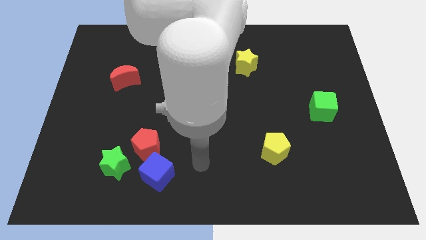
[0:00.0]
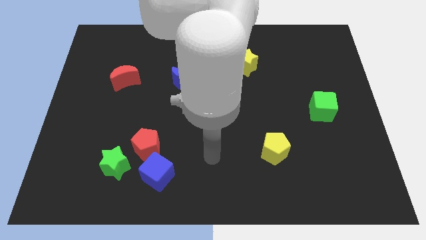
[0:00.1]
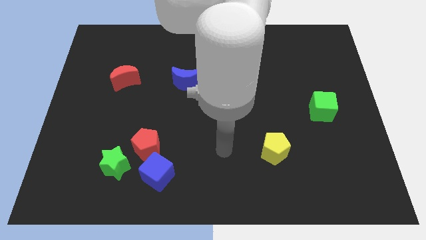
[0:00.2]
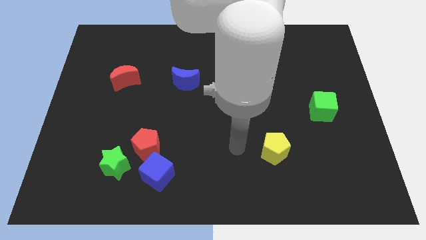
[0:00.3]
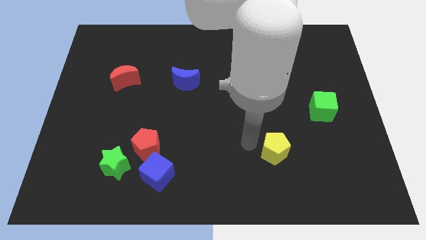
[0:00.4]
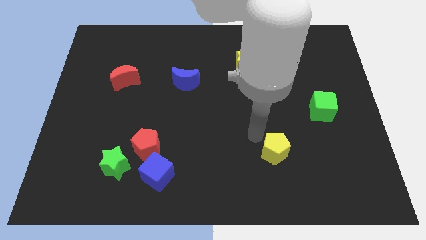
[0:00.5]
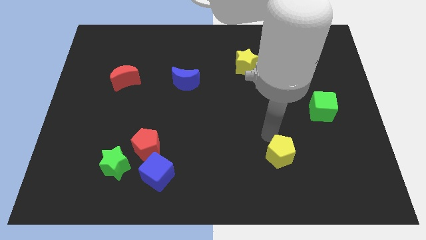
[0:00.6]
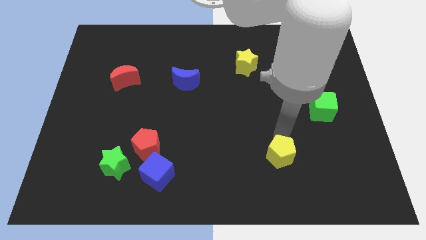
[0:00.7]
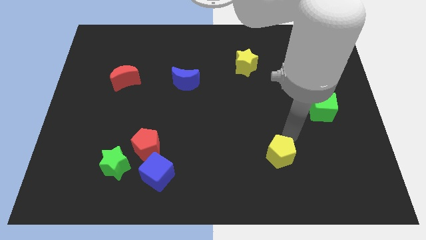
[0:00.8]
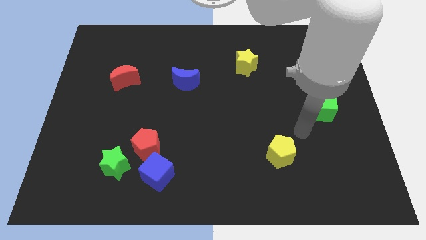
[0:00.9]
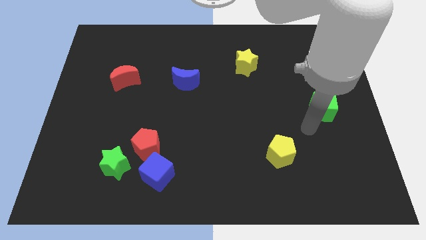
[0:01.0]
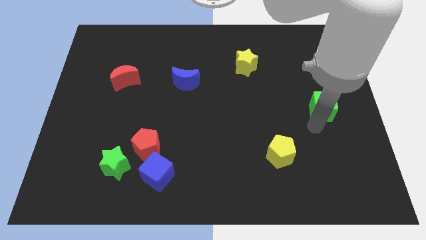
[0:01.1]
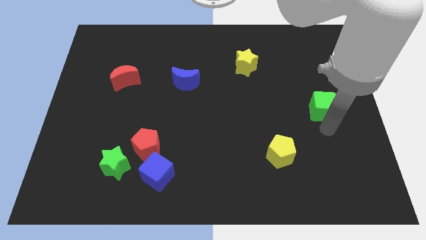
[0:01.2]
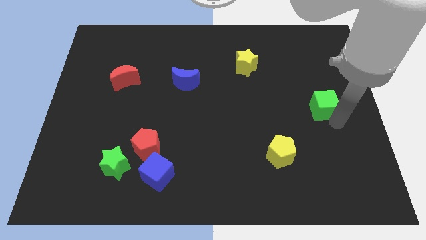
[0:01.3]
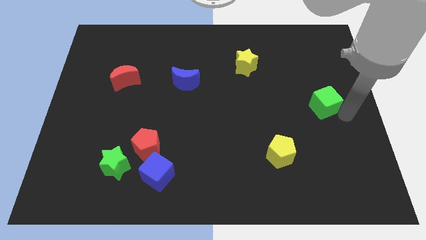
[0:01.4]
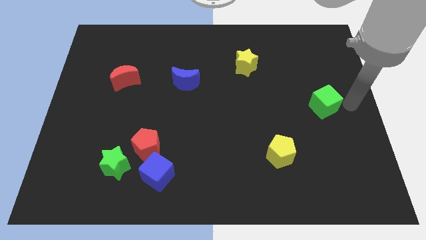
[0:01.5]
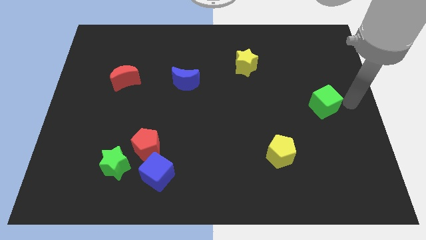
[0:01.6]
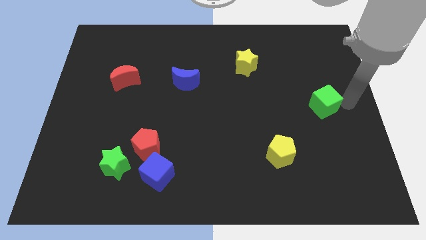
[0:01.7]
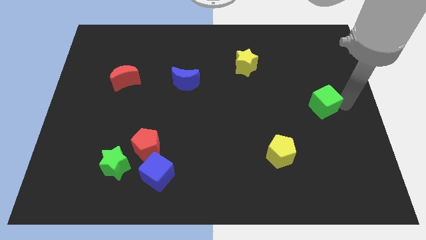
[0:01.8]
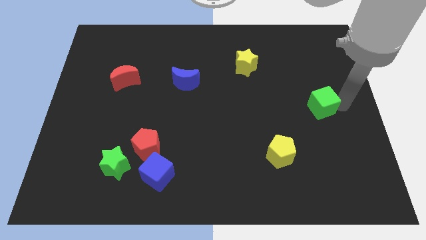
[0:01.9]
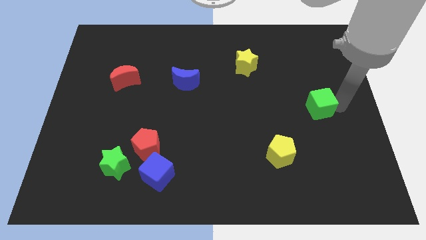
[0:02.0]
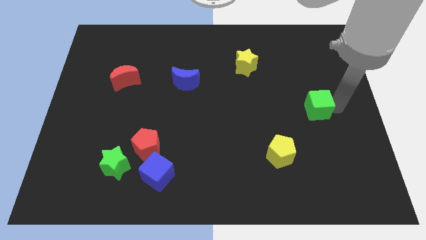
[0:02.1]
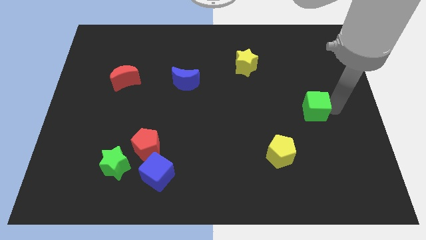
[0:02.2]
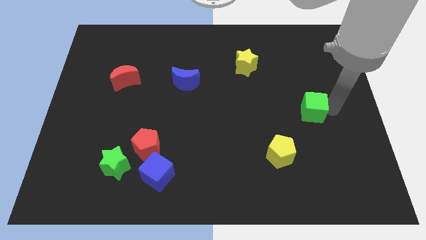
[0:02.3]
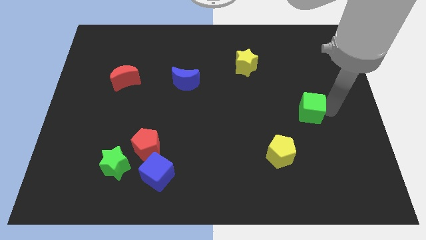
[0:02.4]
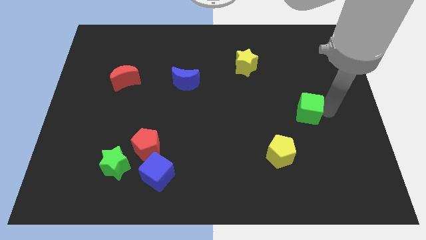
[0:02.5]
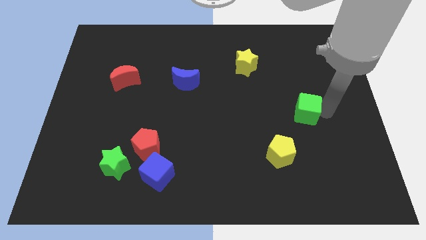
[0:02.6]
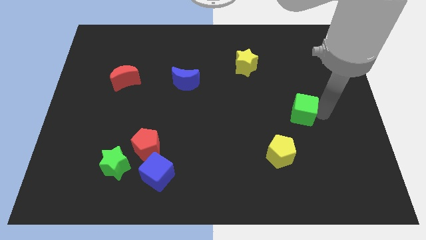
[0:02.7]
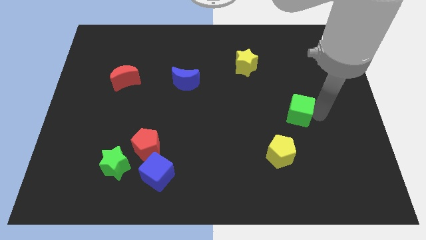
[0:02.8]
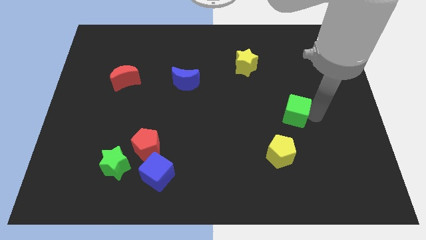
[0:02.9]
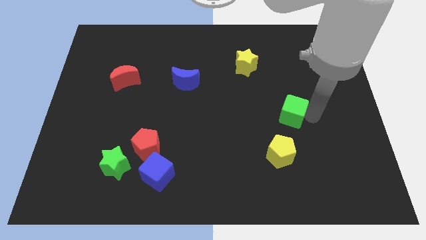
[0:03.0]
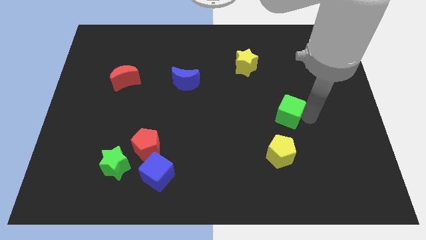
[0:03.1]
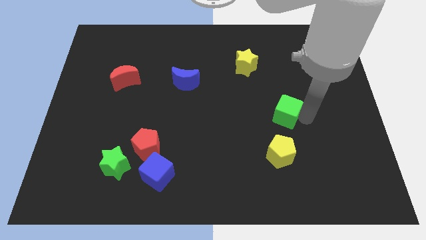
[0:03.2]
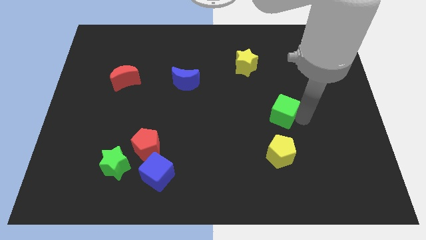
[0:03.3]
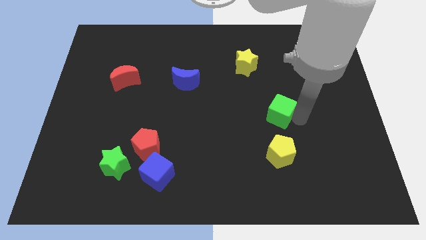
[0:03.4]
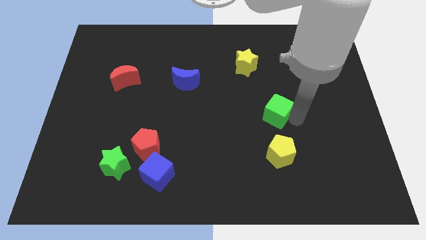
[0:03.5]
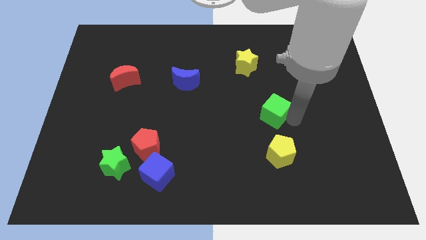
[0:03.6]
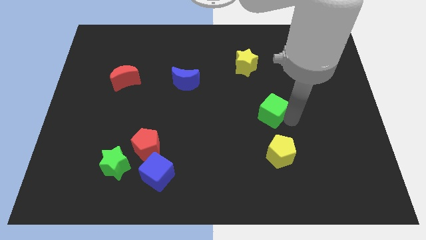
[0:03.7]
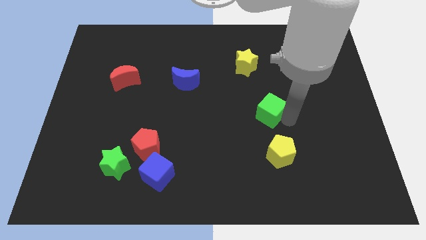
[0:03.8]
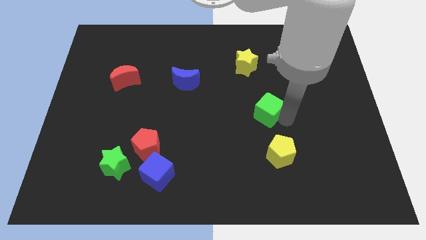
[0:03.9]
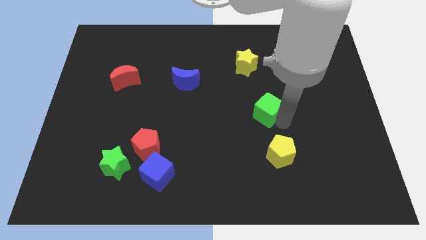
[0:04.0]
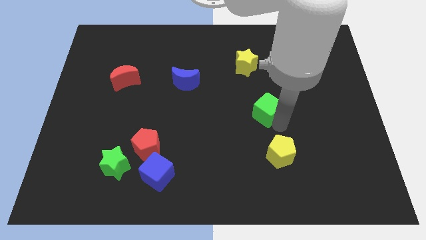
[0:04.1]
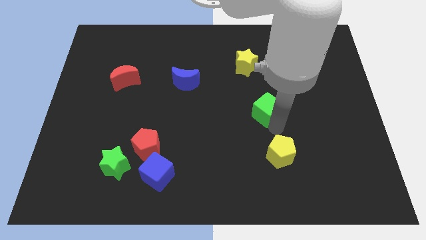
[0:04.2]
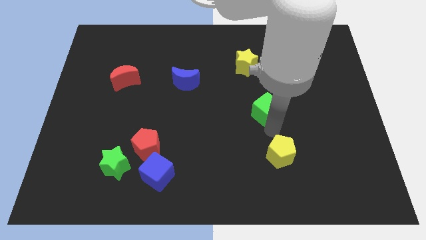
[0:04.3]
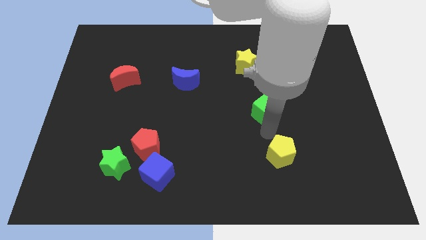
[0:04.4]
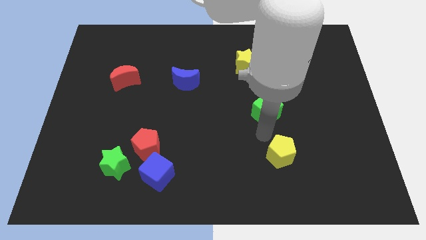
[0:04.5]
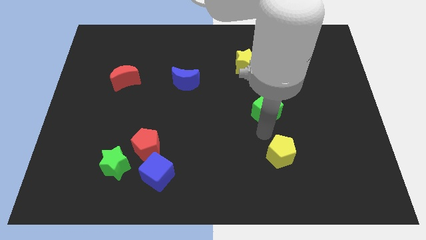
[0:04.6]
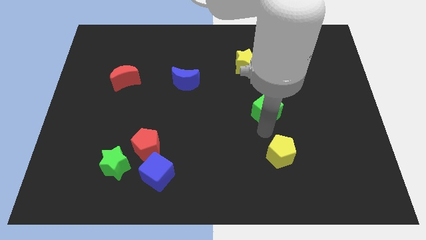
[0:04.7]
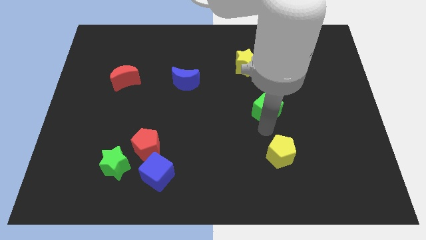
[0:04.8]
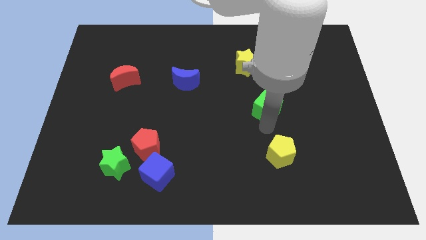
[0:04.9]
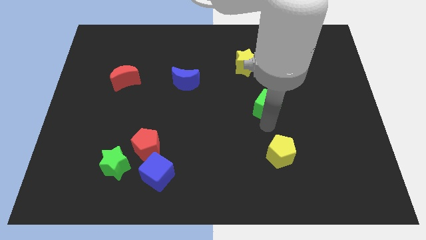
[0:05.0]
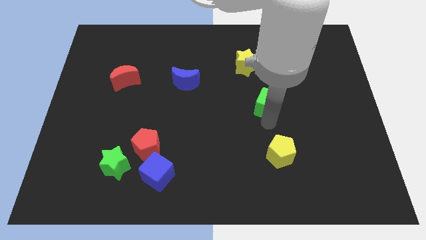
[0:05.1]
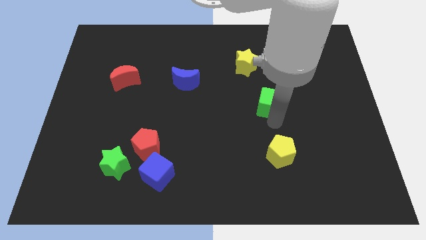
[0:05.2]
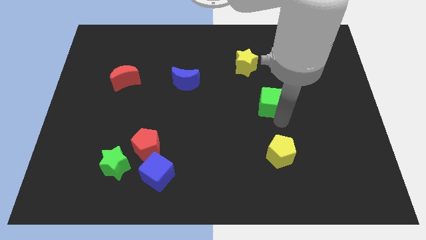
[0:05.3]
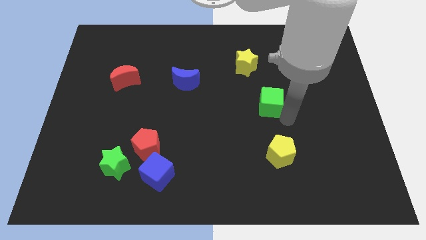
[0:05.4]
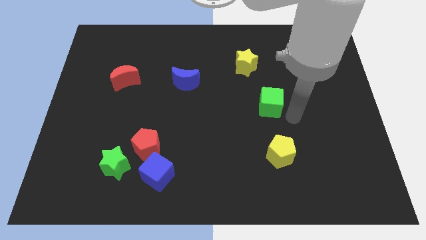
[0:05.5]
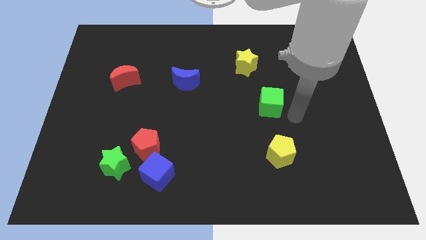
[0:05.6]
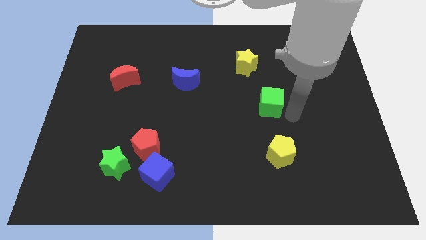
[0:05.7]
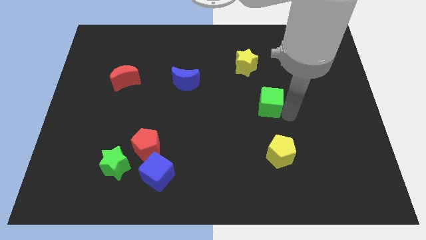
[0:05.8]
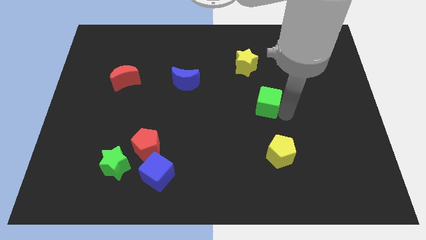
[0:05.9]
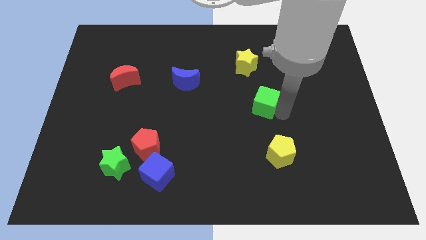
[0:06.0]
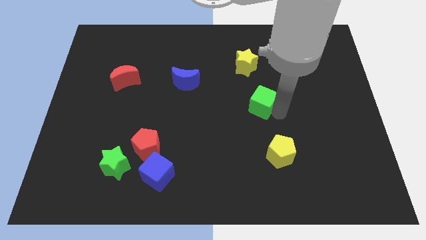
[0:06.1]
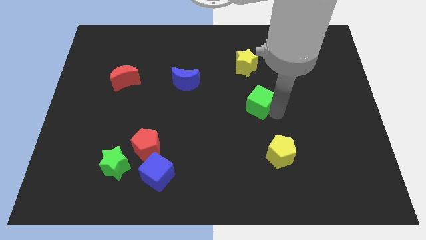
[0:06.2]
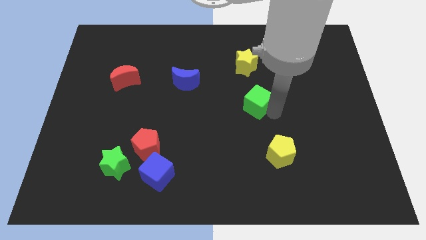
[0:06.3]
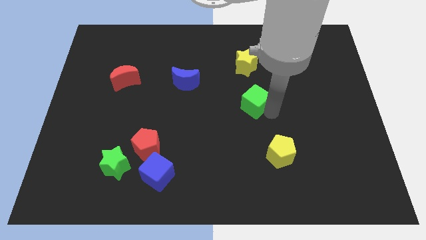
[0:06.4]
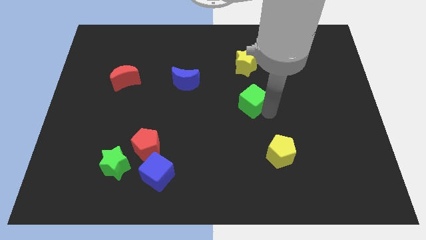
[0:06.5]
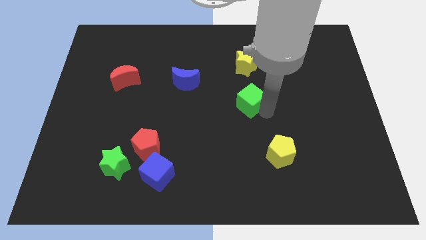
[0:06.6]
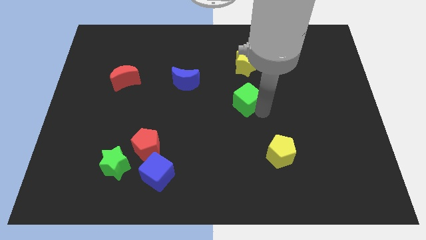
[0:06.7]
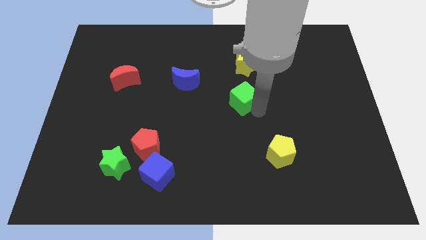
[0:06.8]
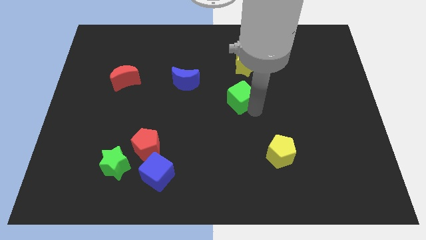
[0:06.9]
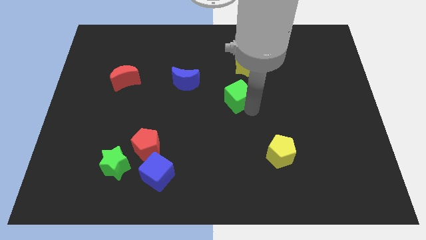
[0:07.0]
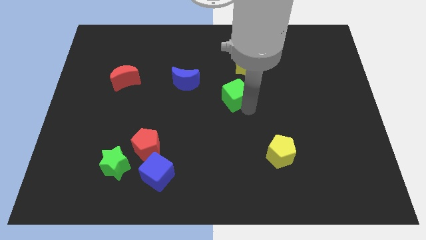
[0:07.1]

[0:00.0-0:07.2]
put the green cube just right of the blue moon
